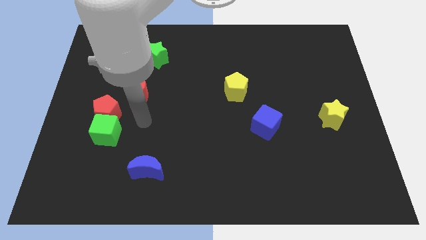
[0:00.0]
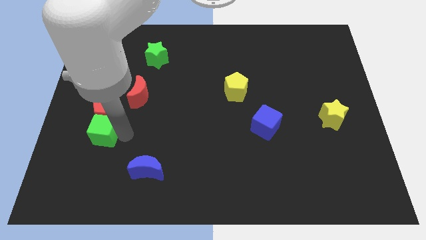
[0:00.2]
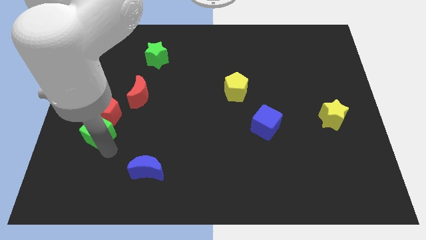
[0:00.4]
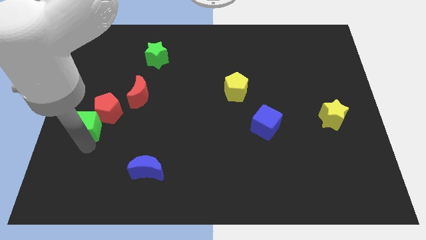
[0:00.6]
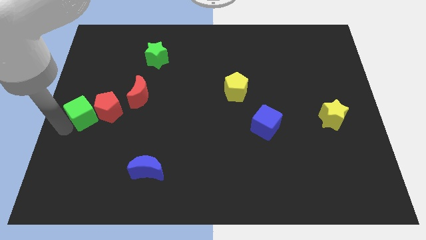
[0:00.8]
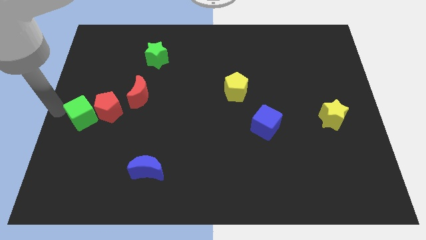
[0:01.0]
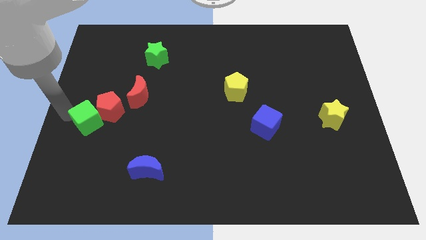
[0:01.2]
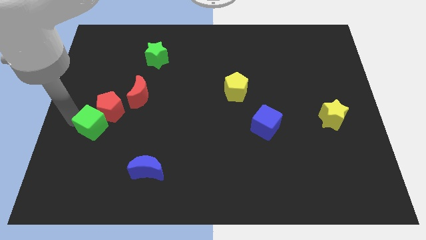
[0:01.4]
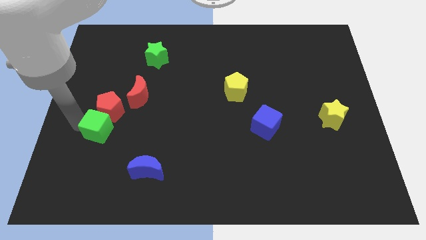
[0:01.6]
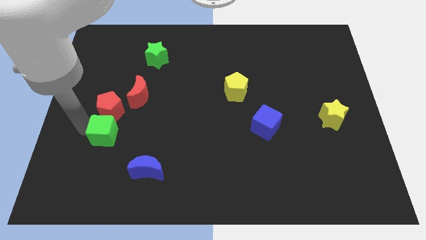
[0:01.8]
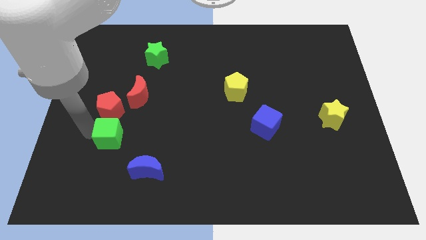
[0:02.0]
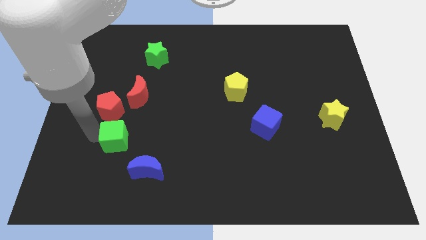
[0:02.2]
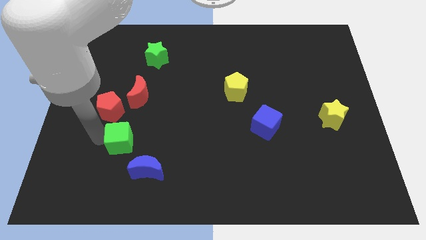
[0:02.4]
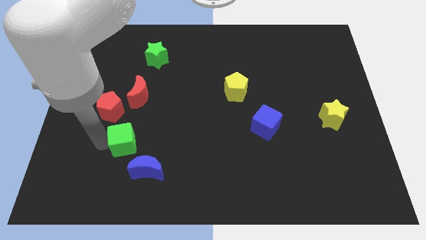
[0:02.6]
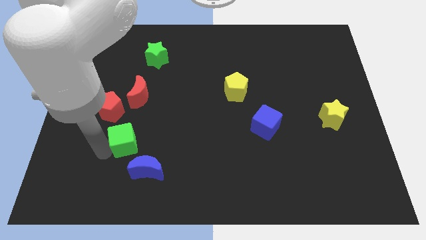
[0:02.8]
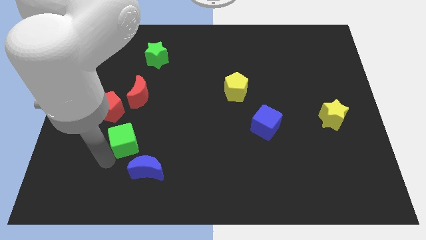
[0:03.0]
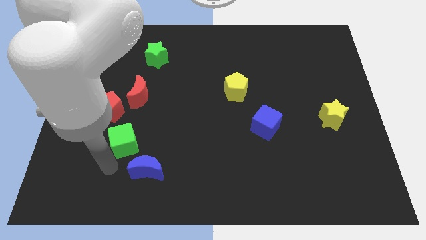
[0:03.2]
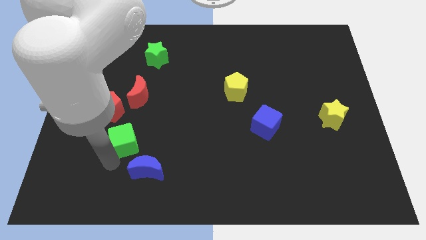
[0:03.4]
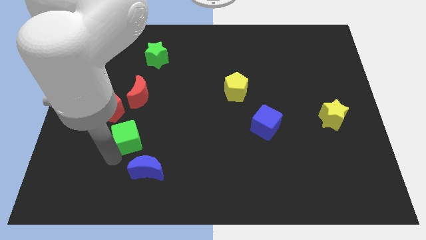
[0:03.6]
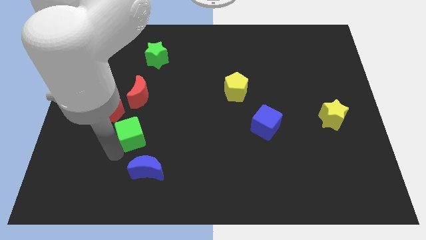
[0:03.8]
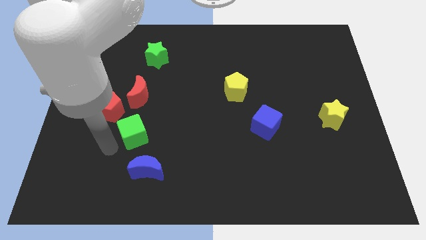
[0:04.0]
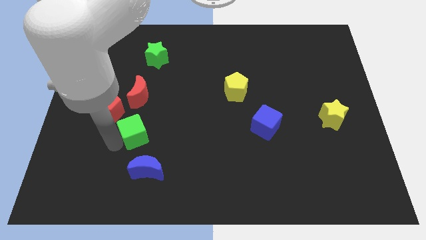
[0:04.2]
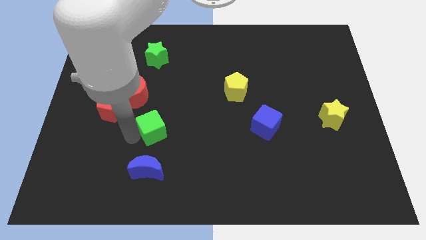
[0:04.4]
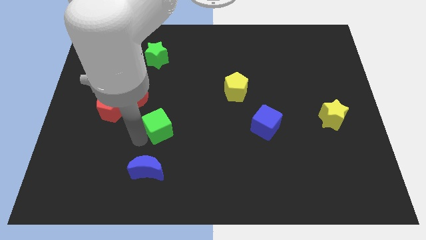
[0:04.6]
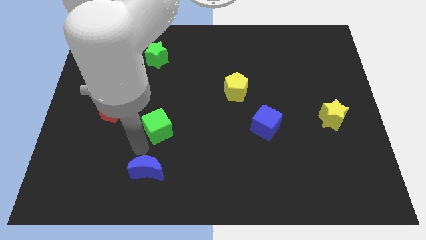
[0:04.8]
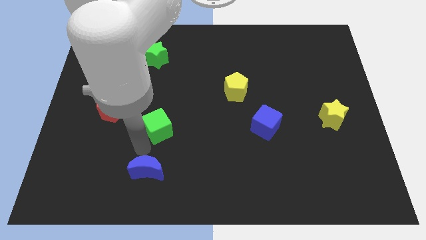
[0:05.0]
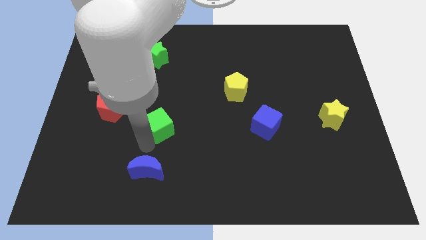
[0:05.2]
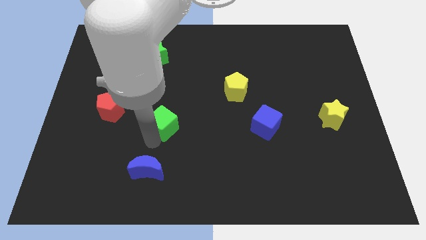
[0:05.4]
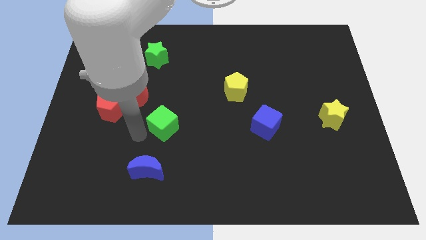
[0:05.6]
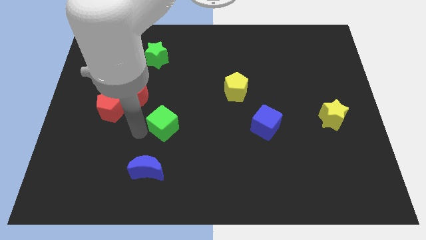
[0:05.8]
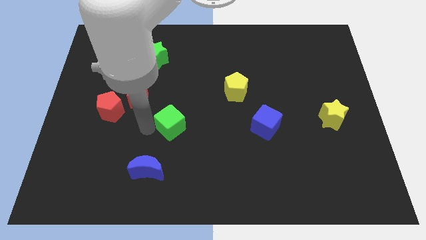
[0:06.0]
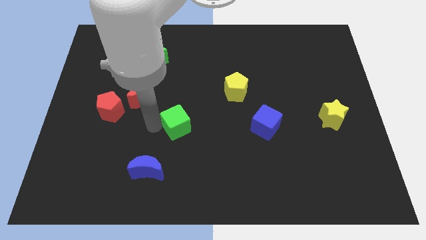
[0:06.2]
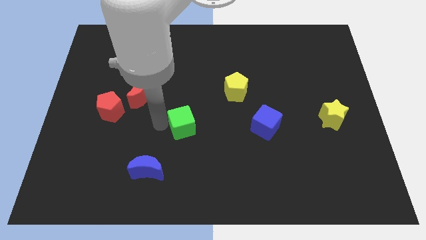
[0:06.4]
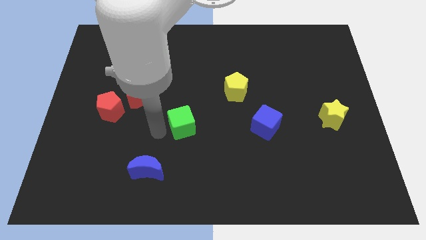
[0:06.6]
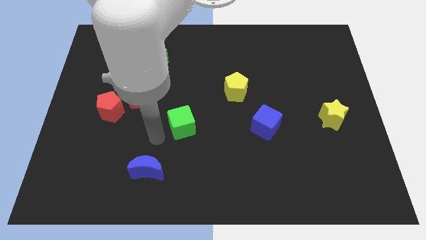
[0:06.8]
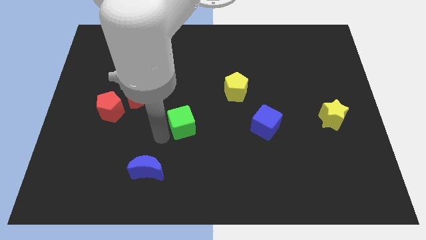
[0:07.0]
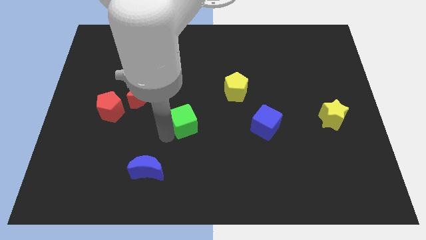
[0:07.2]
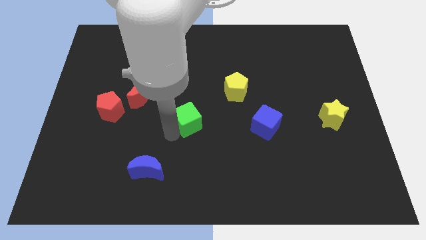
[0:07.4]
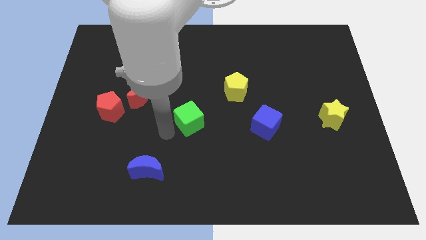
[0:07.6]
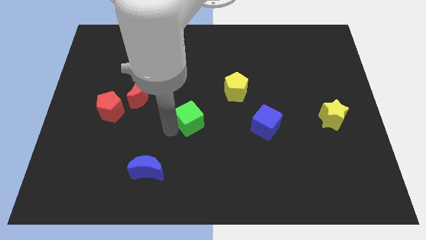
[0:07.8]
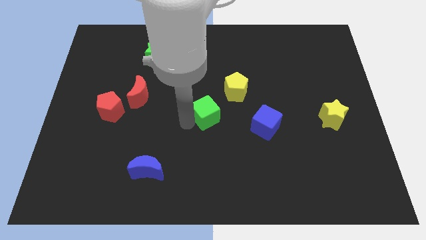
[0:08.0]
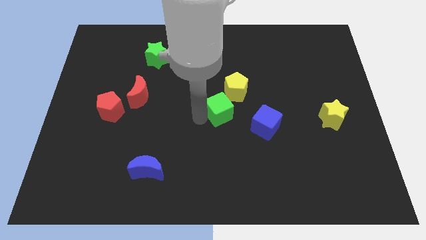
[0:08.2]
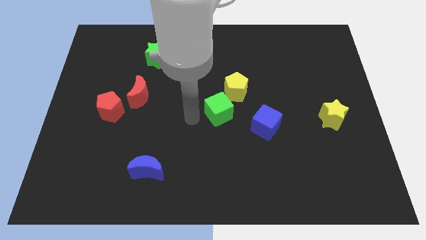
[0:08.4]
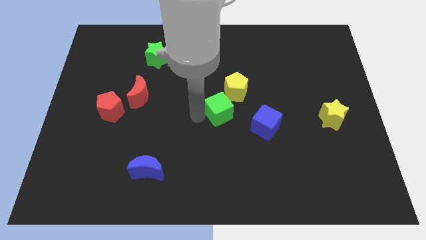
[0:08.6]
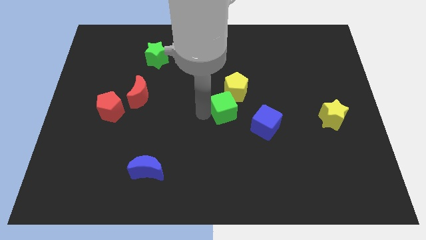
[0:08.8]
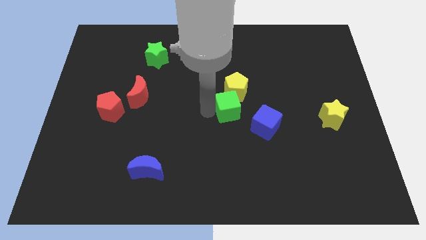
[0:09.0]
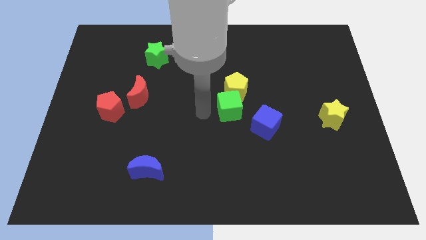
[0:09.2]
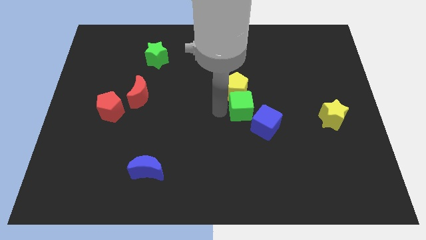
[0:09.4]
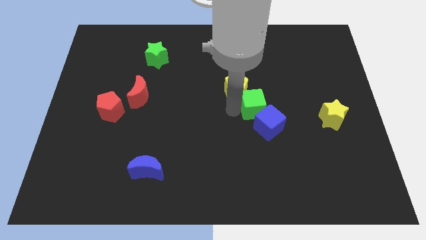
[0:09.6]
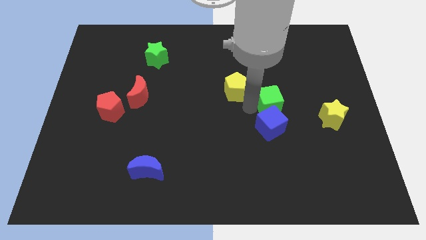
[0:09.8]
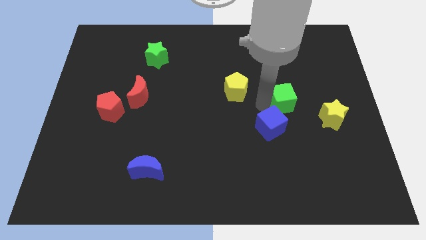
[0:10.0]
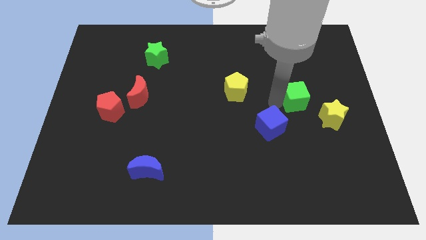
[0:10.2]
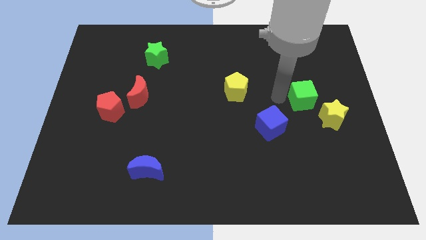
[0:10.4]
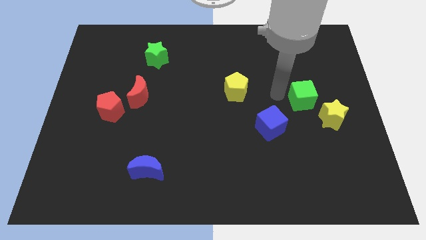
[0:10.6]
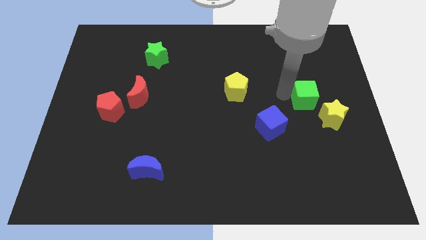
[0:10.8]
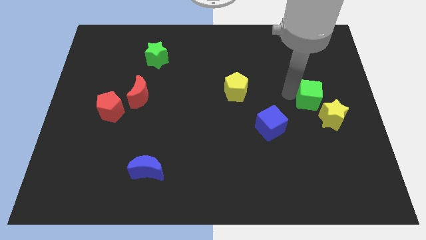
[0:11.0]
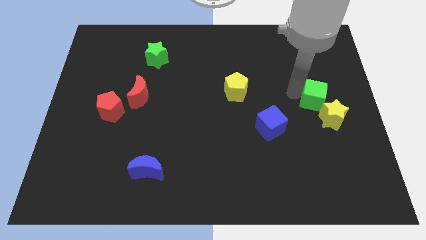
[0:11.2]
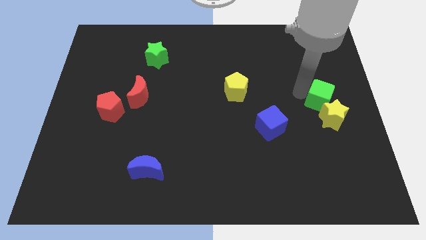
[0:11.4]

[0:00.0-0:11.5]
slide the green cube to the right side

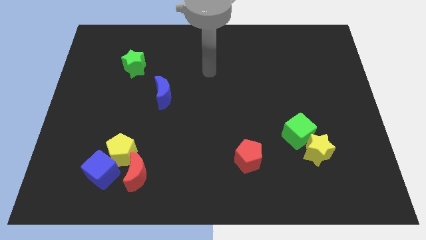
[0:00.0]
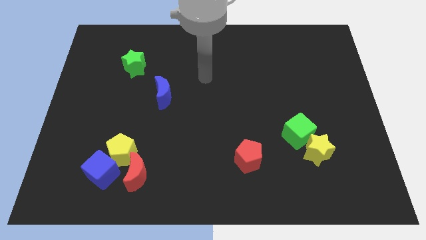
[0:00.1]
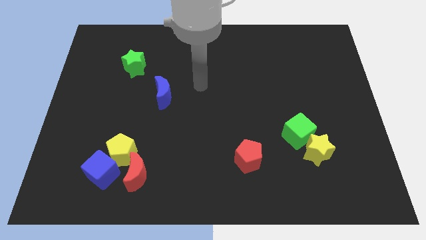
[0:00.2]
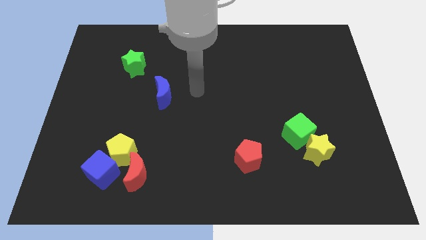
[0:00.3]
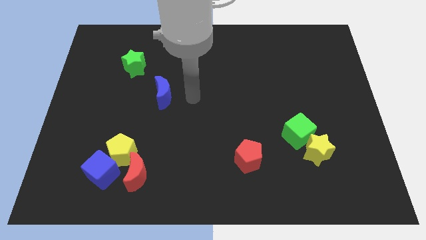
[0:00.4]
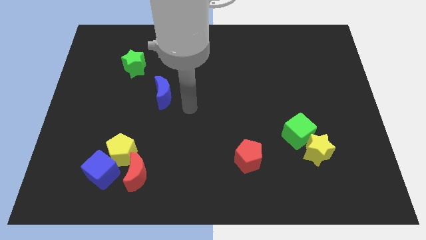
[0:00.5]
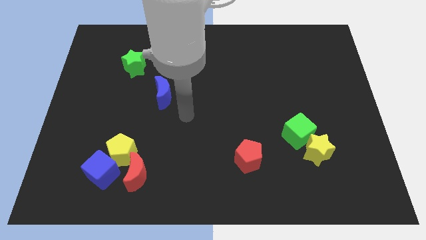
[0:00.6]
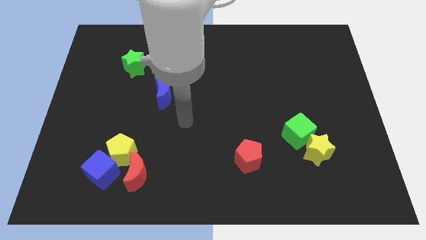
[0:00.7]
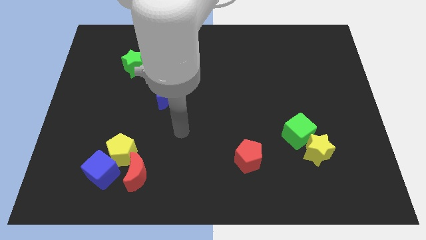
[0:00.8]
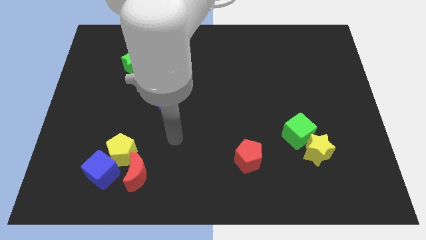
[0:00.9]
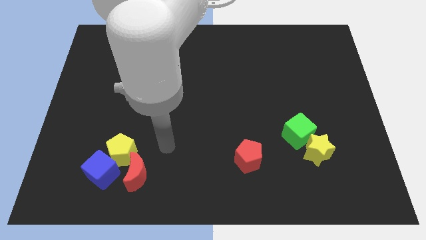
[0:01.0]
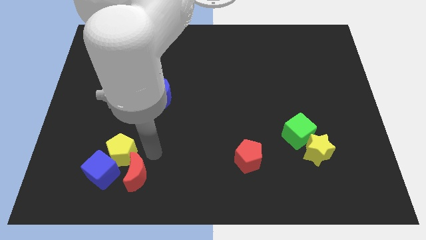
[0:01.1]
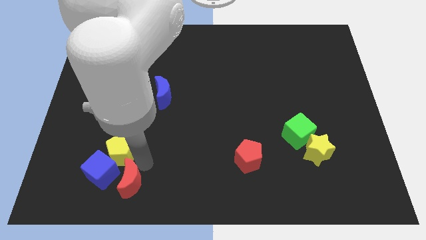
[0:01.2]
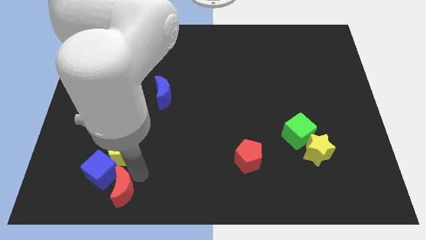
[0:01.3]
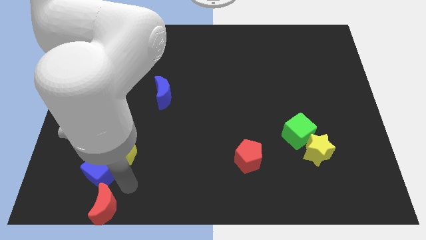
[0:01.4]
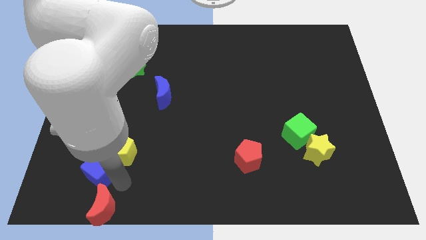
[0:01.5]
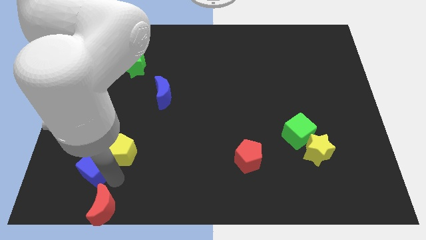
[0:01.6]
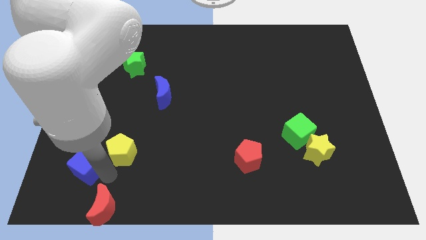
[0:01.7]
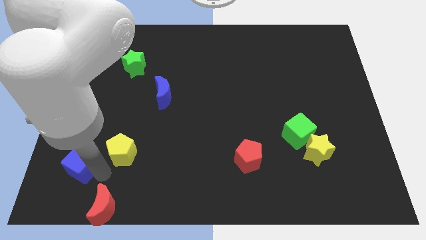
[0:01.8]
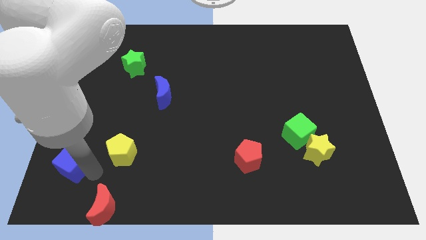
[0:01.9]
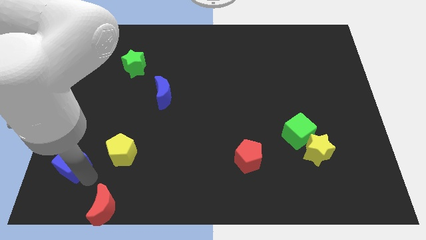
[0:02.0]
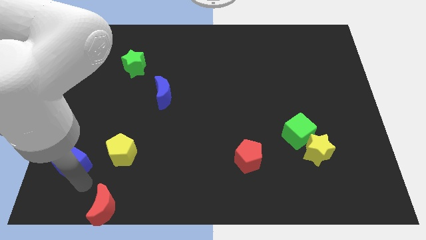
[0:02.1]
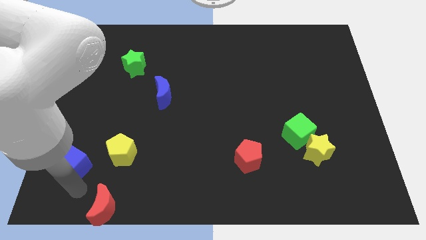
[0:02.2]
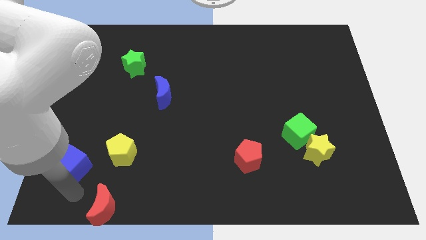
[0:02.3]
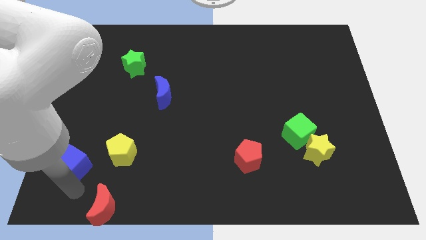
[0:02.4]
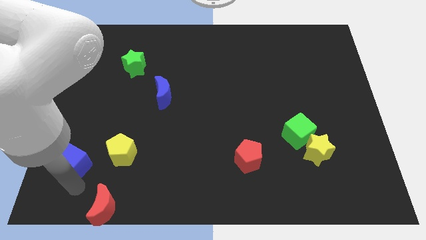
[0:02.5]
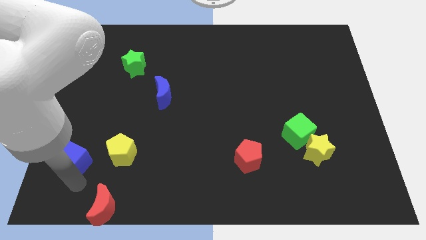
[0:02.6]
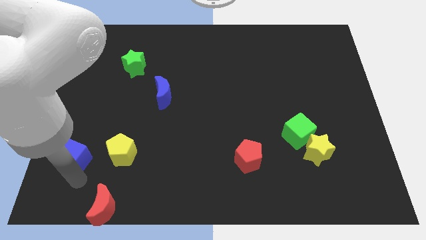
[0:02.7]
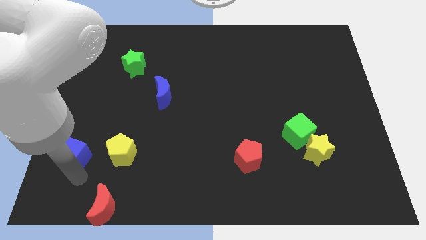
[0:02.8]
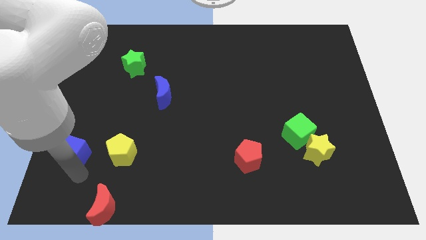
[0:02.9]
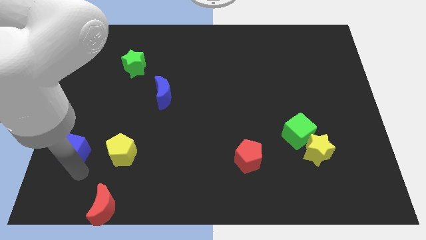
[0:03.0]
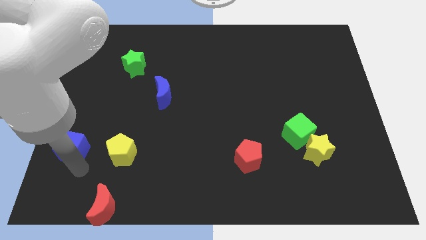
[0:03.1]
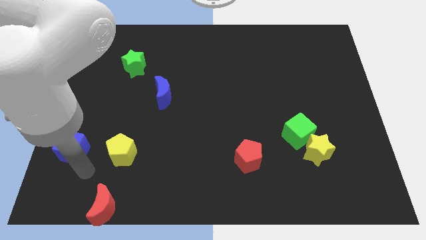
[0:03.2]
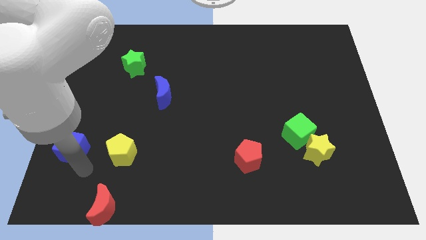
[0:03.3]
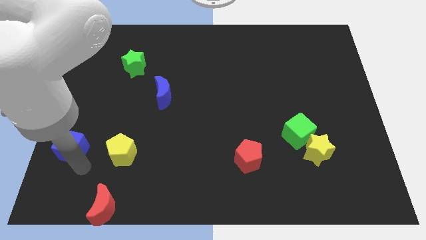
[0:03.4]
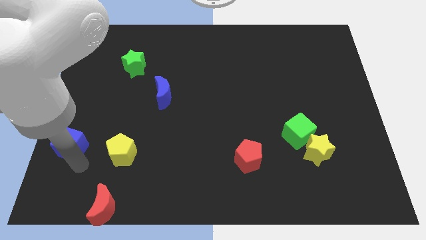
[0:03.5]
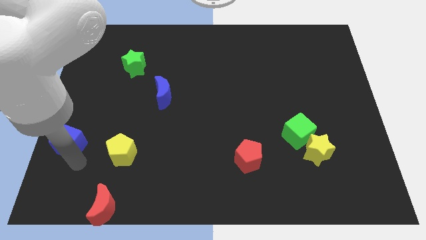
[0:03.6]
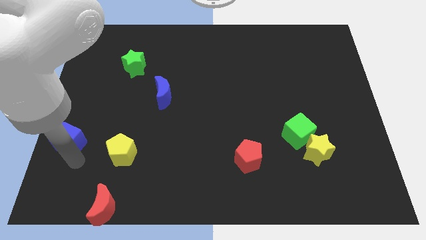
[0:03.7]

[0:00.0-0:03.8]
push the blue cube to the center left
